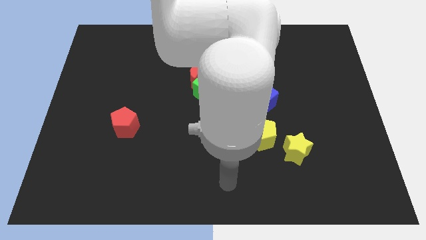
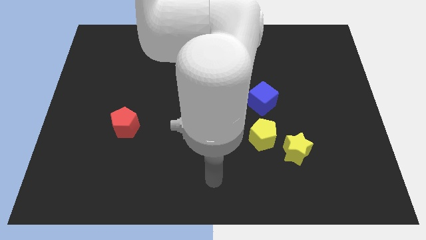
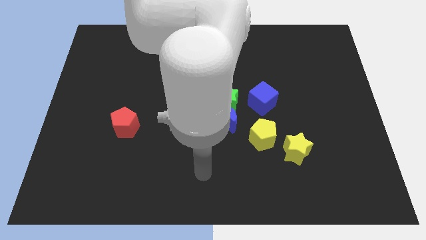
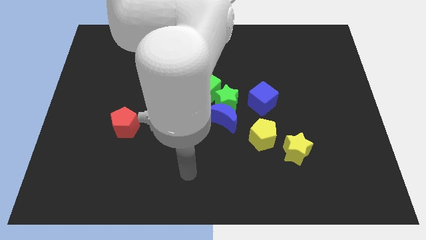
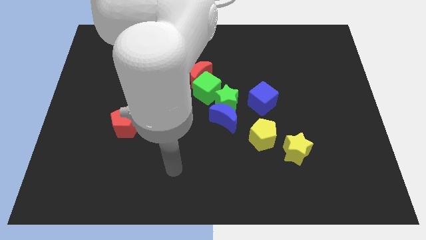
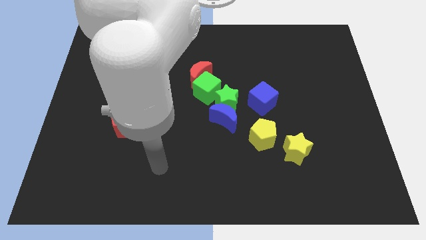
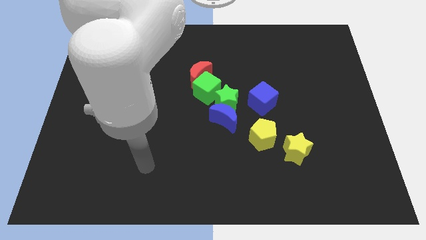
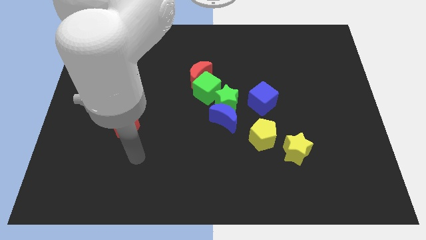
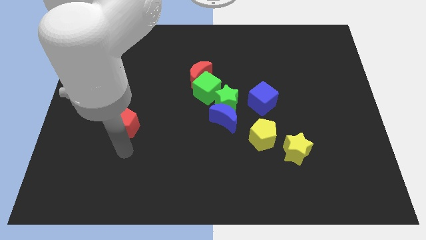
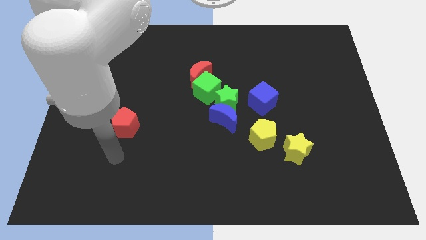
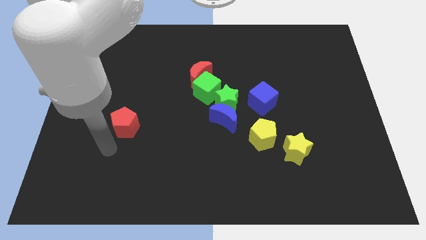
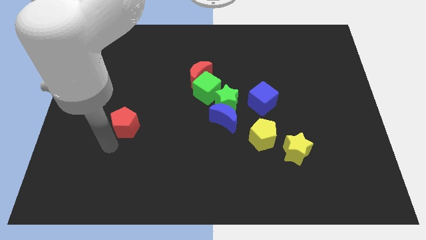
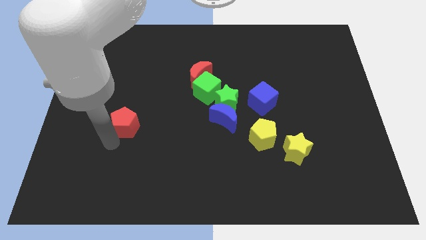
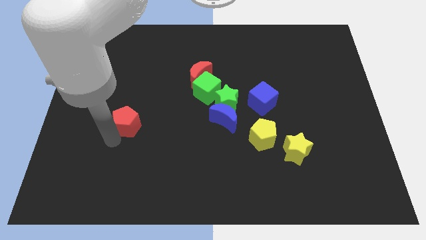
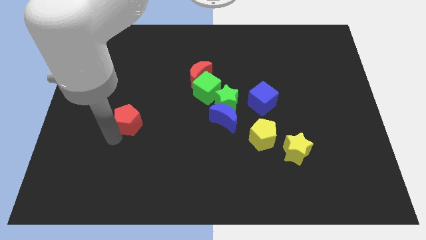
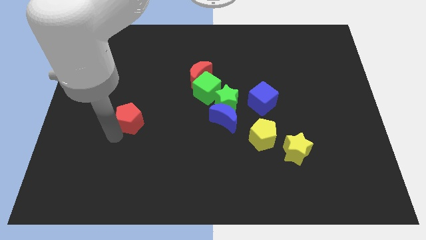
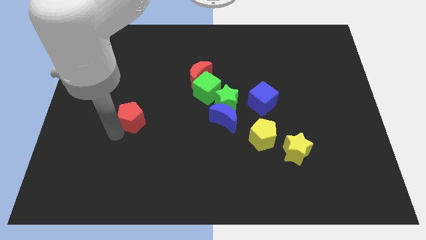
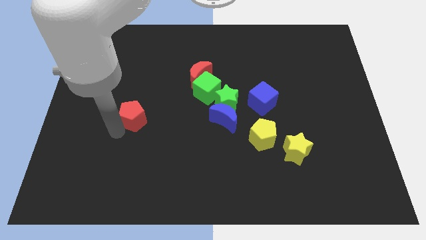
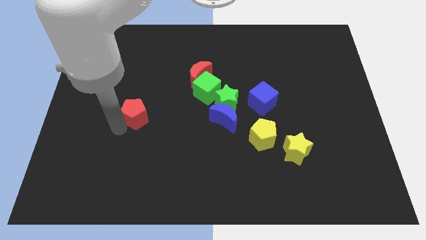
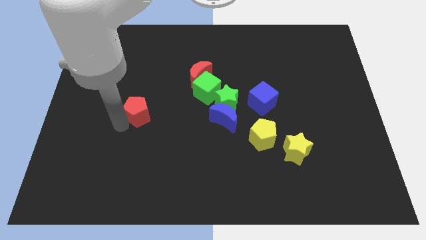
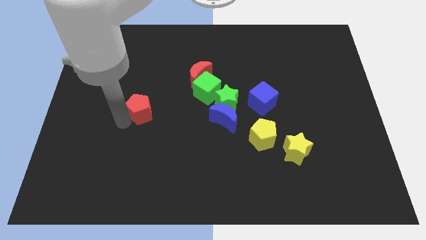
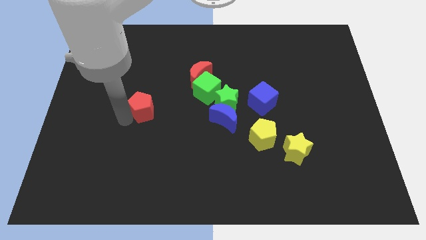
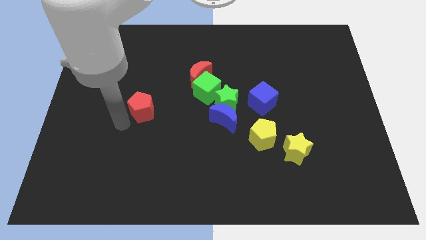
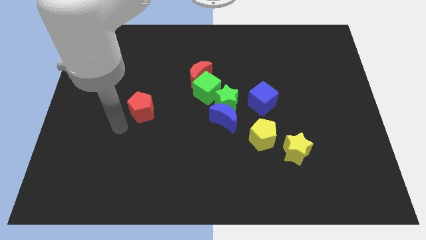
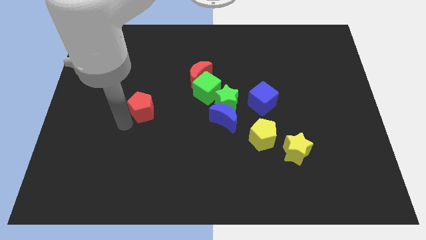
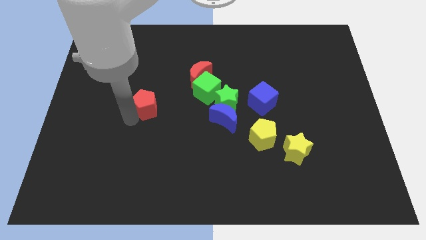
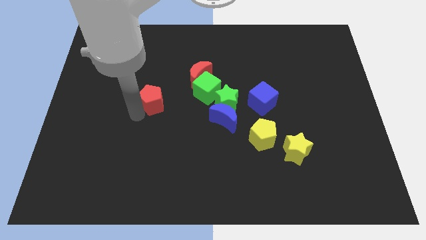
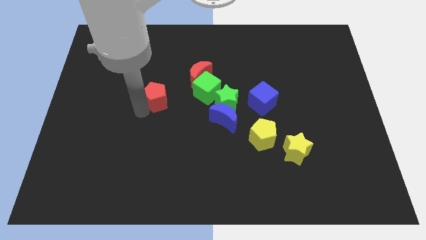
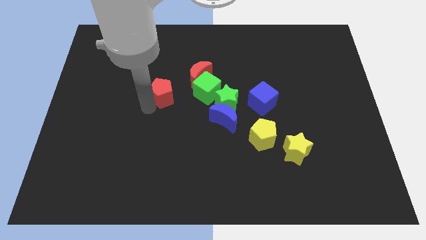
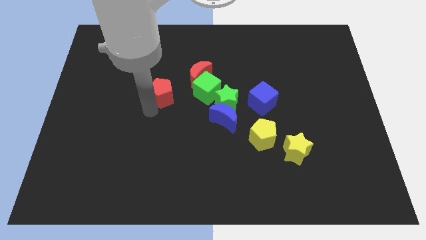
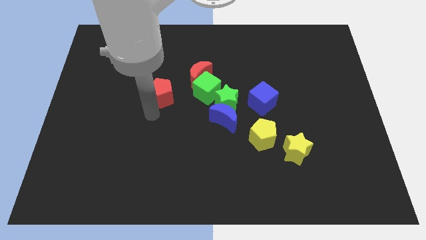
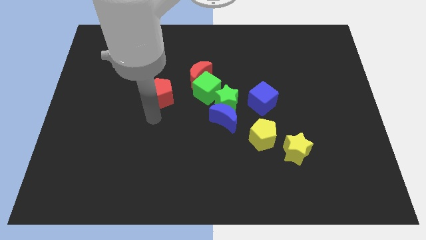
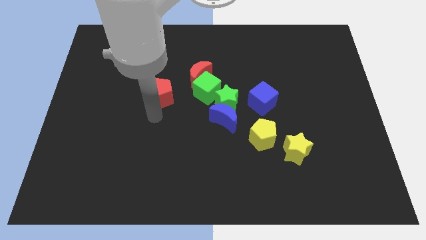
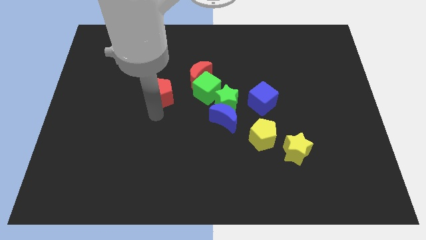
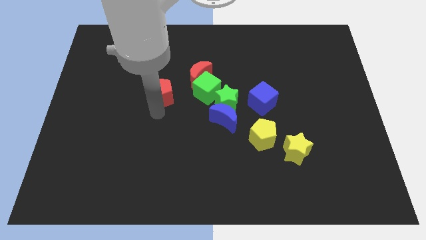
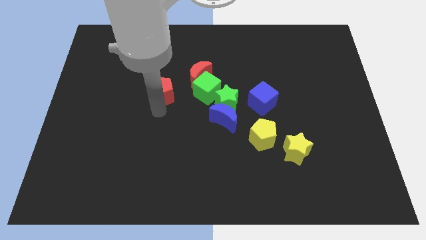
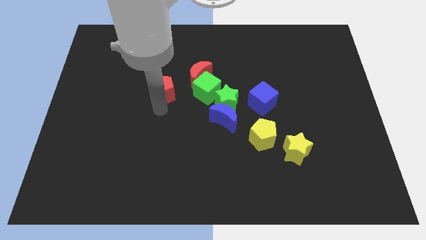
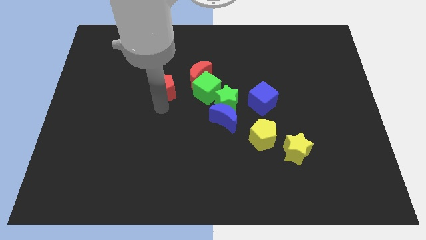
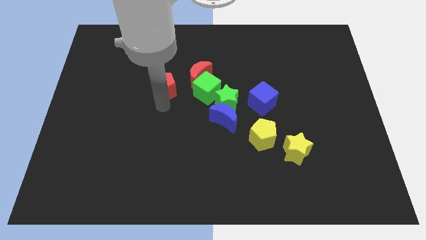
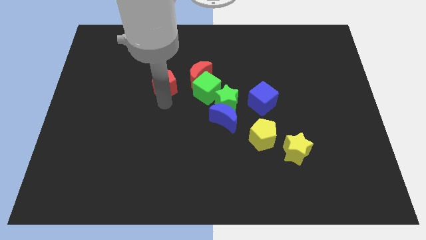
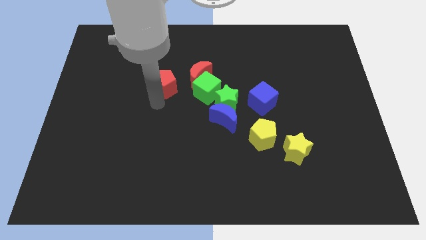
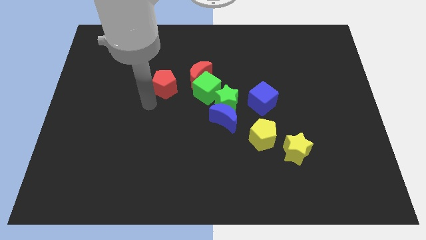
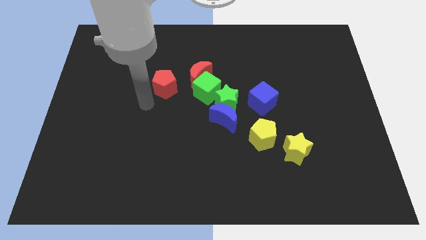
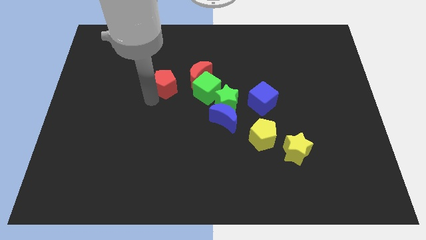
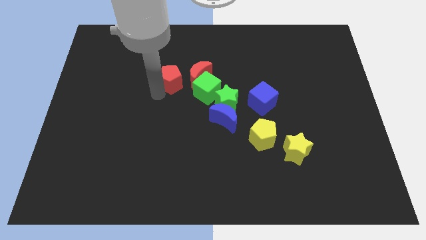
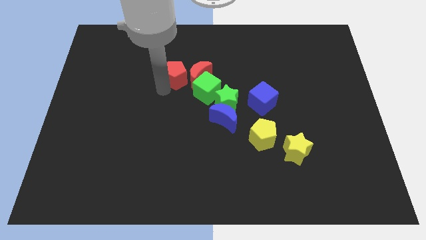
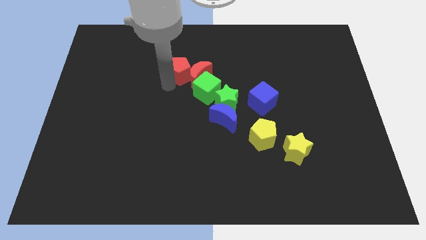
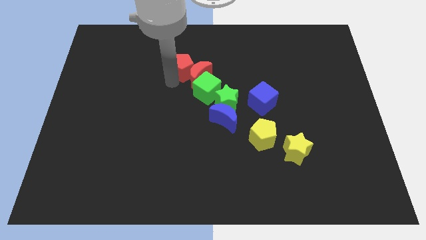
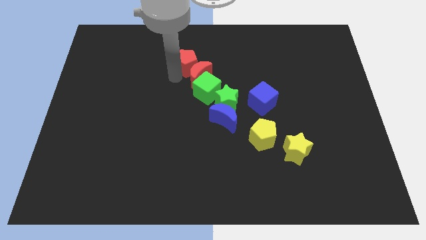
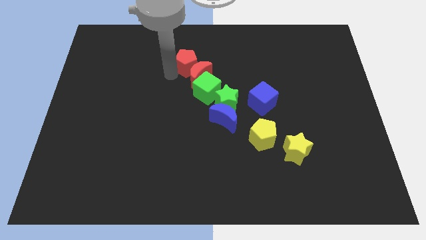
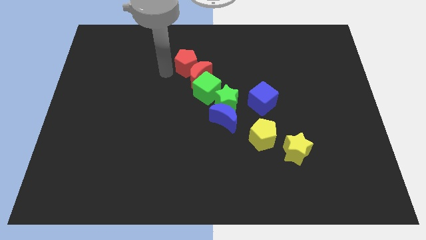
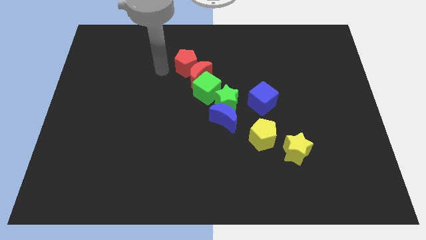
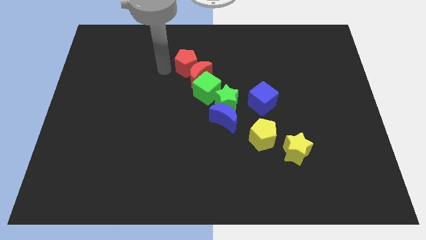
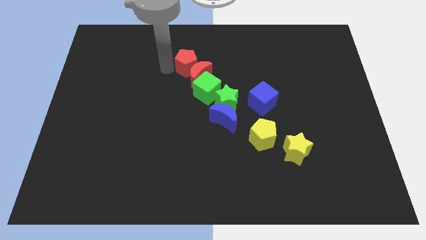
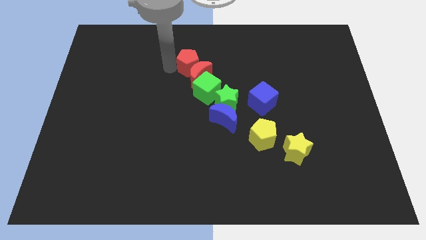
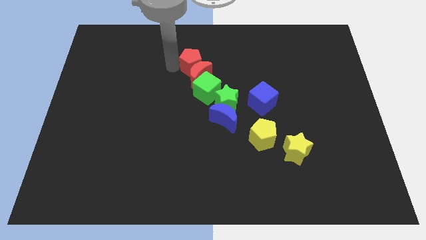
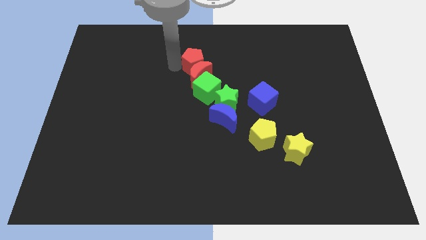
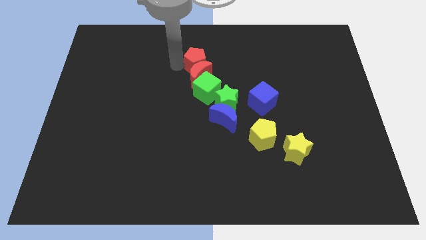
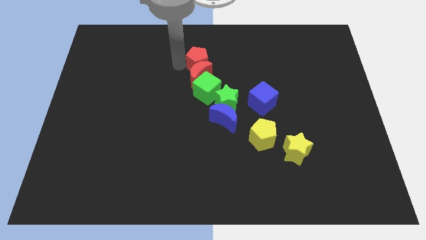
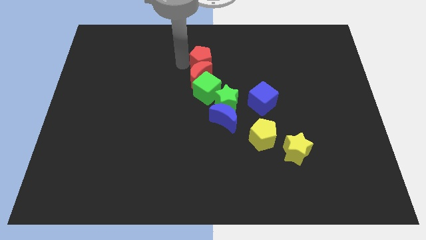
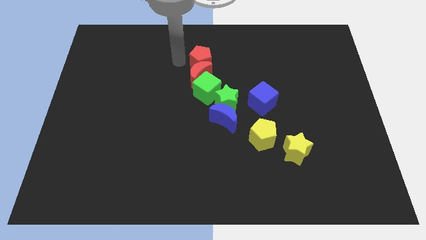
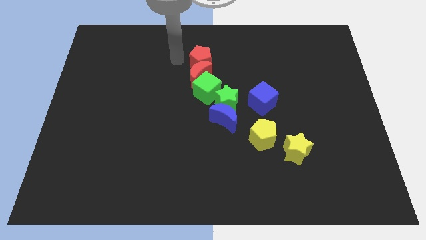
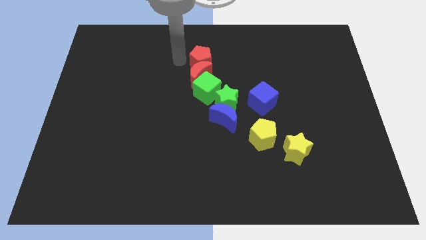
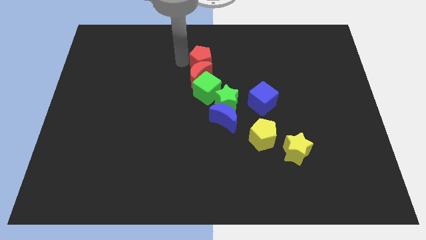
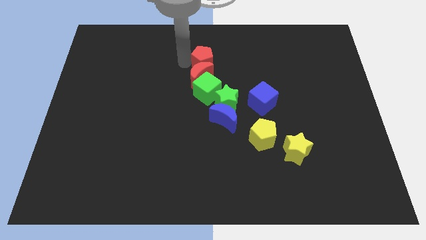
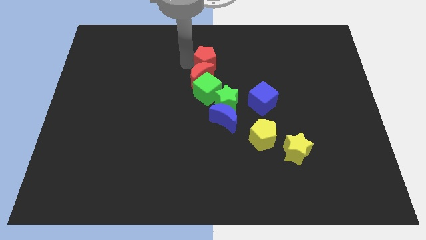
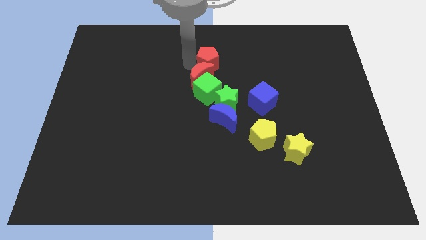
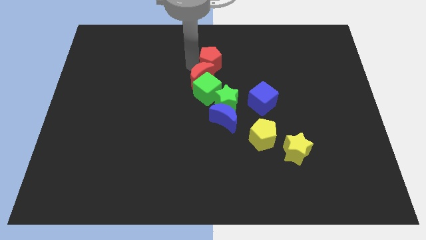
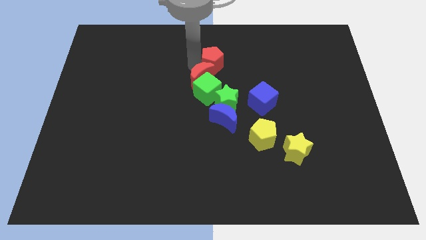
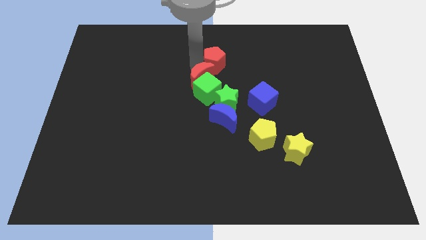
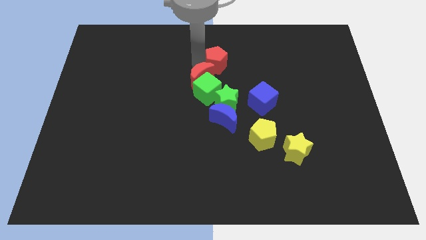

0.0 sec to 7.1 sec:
move the red pentagon to the right of the red moon
